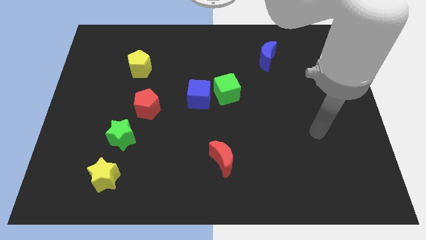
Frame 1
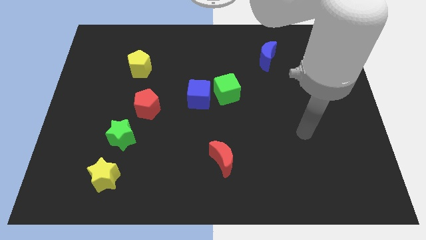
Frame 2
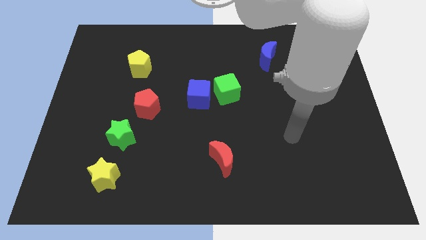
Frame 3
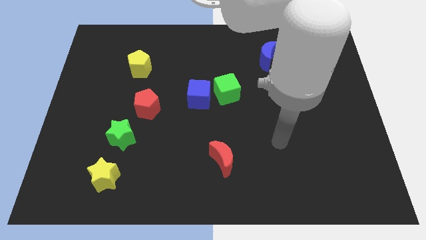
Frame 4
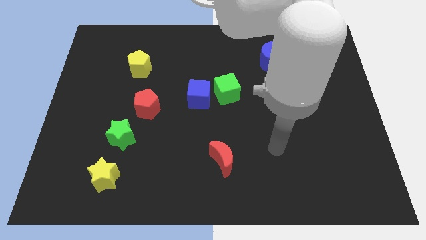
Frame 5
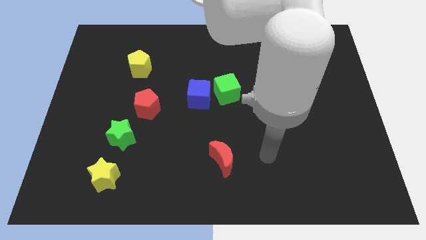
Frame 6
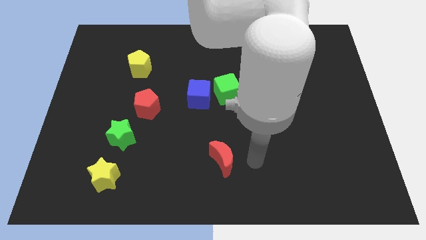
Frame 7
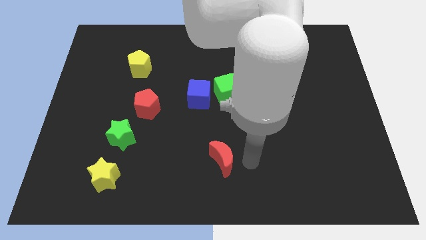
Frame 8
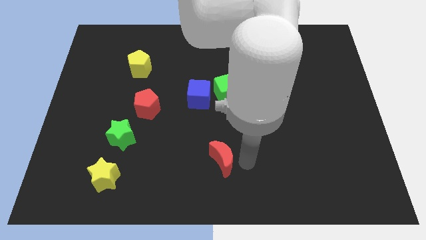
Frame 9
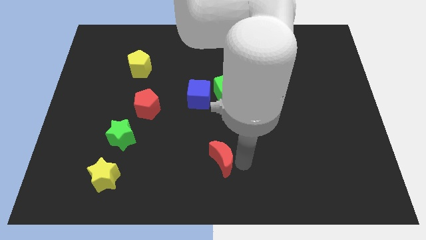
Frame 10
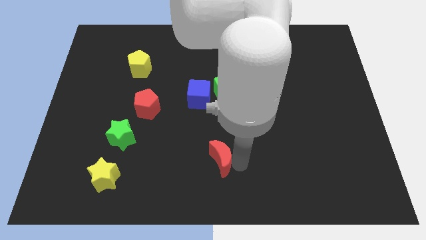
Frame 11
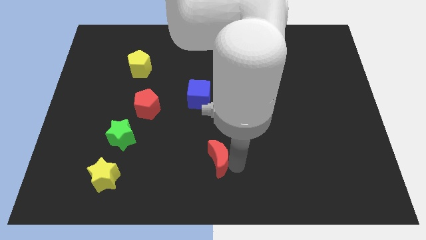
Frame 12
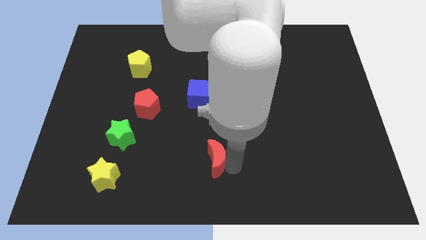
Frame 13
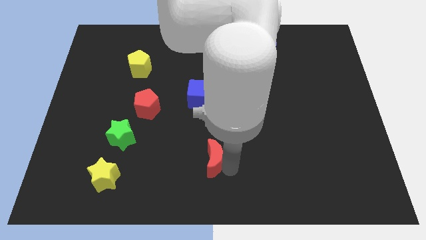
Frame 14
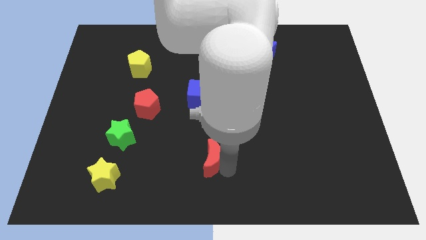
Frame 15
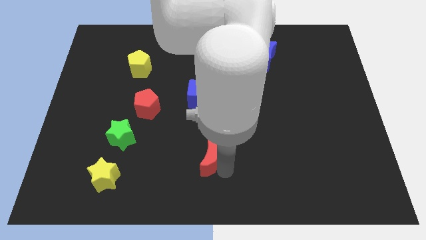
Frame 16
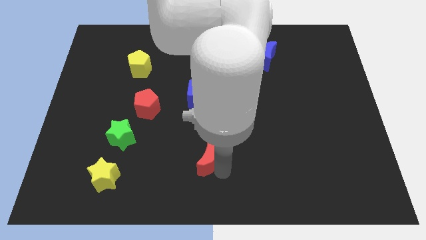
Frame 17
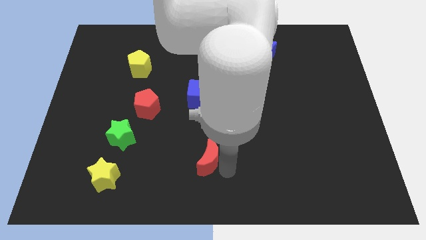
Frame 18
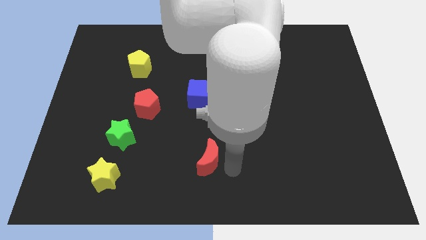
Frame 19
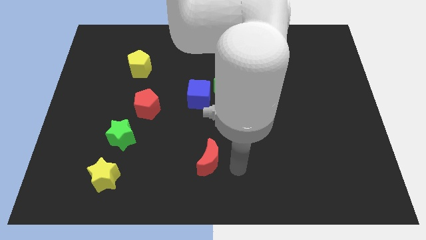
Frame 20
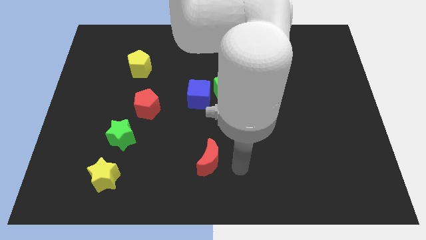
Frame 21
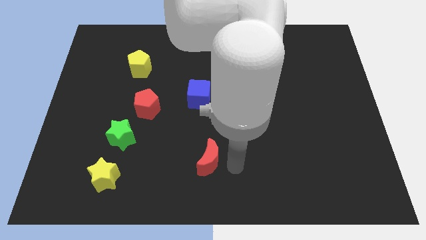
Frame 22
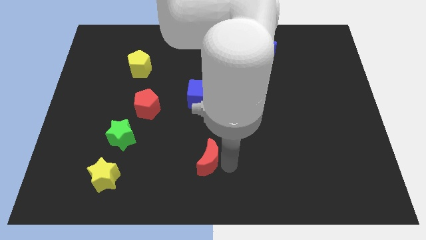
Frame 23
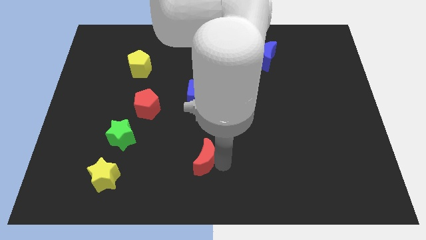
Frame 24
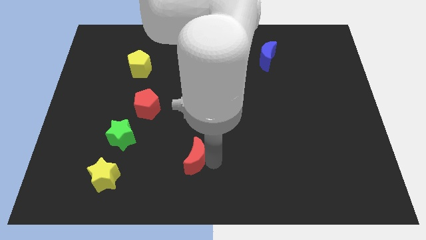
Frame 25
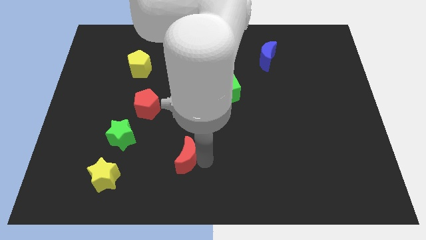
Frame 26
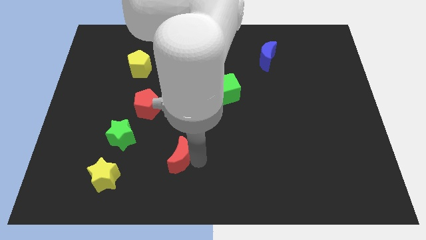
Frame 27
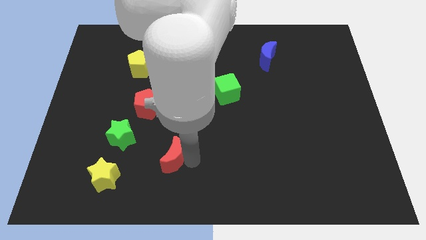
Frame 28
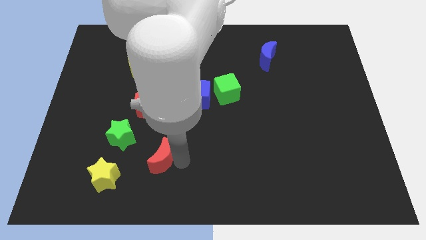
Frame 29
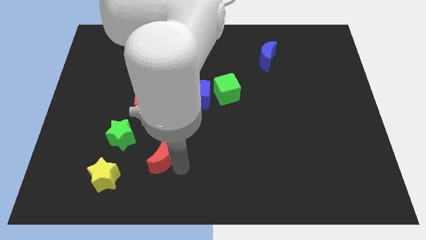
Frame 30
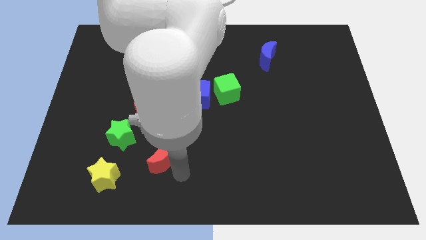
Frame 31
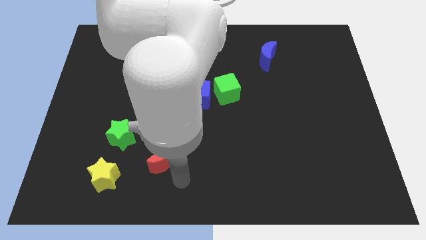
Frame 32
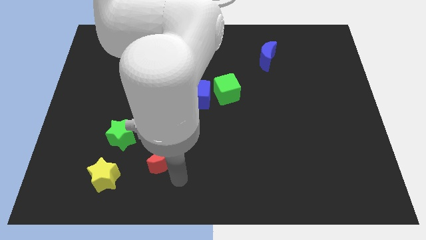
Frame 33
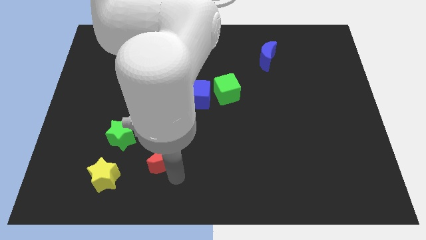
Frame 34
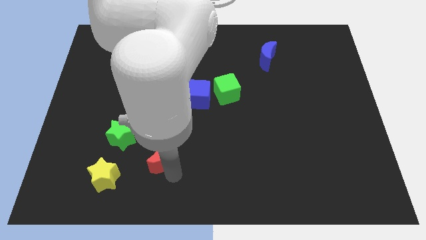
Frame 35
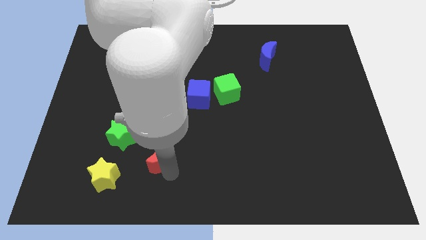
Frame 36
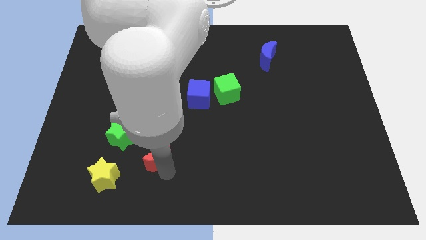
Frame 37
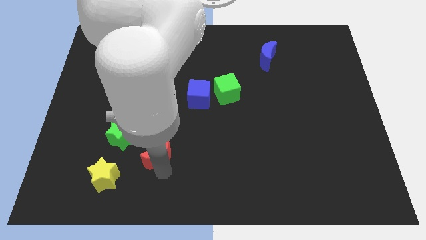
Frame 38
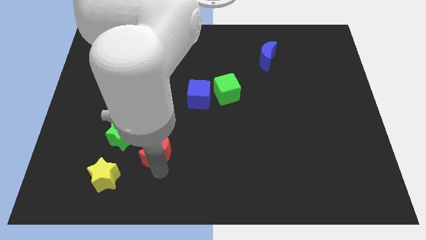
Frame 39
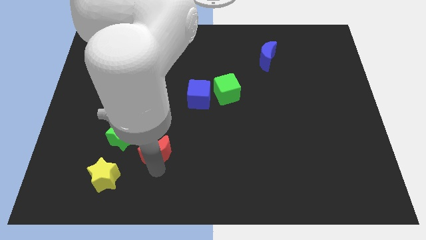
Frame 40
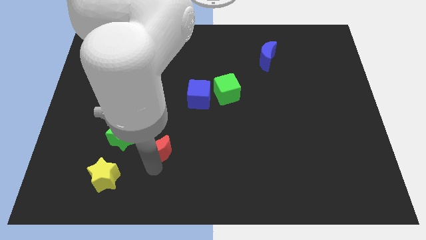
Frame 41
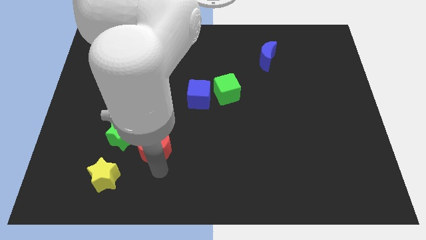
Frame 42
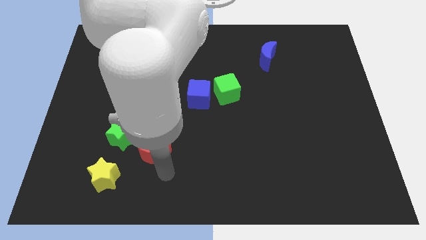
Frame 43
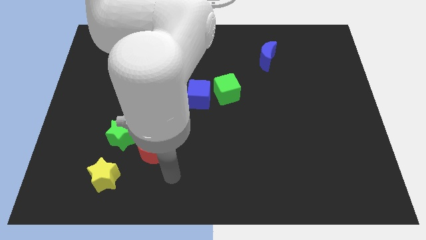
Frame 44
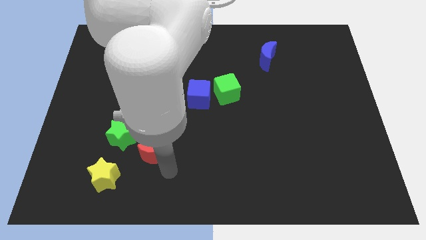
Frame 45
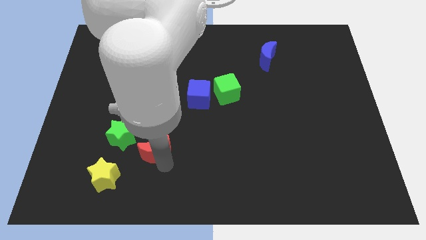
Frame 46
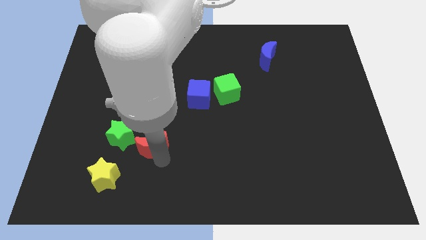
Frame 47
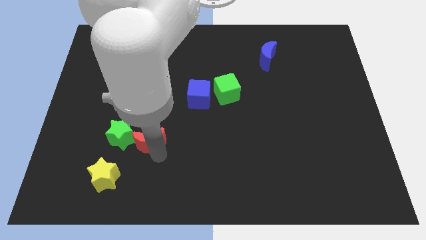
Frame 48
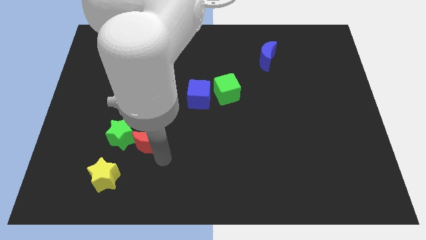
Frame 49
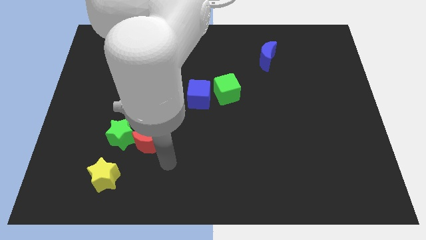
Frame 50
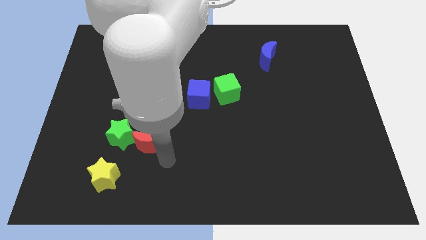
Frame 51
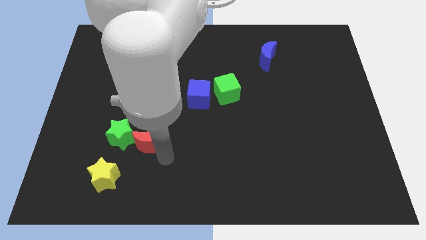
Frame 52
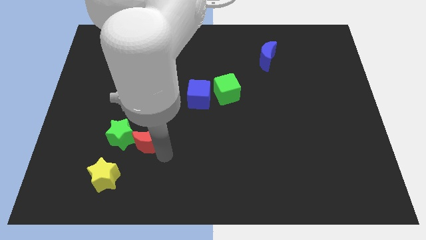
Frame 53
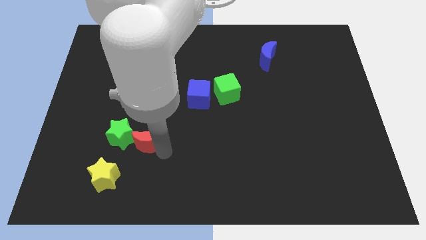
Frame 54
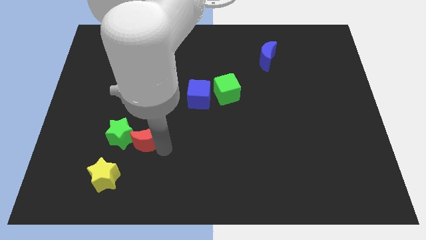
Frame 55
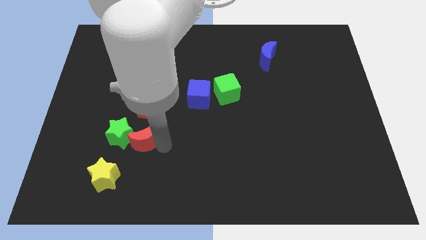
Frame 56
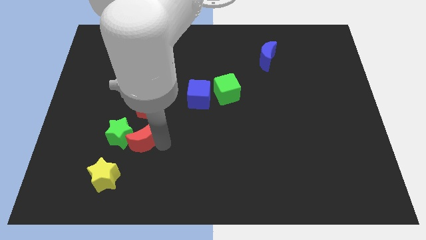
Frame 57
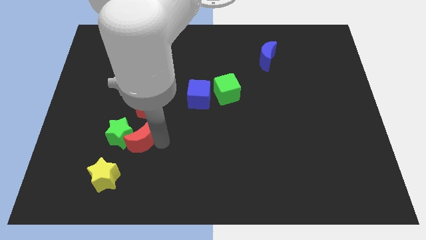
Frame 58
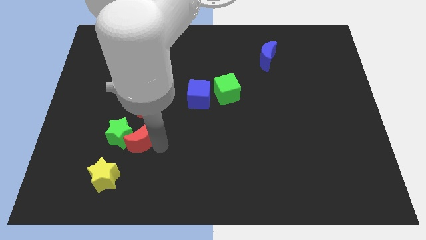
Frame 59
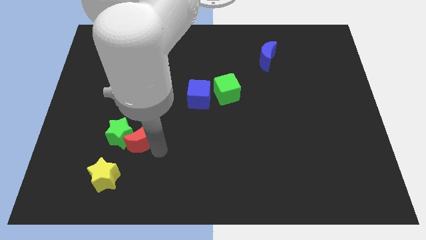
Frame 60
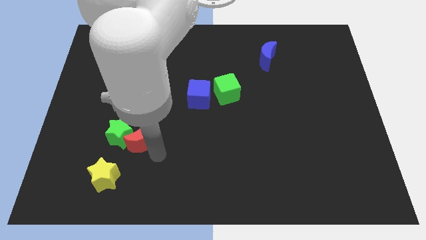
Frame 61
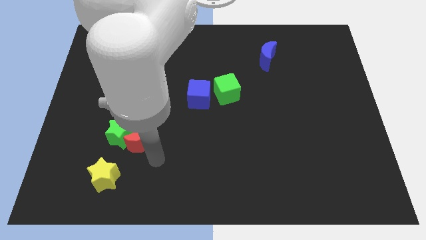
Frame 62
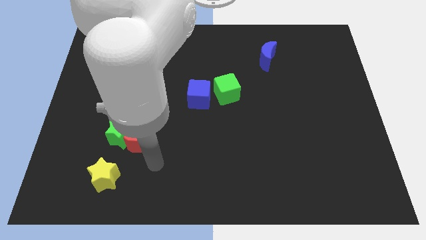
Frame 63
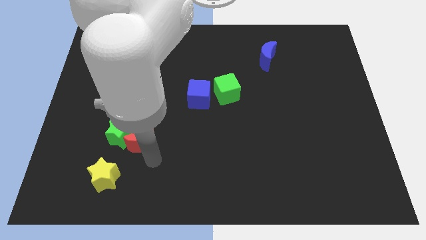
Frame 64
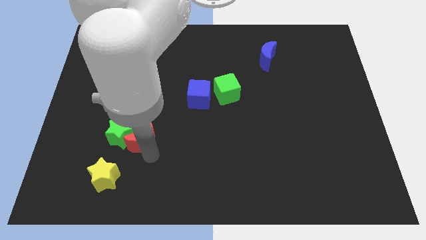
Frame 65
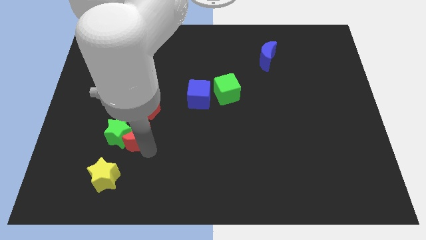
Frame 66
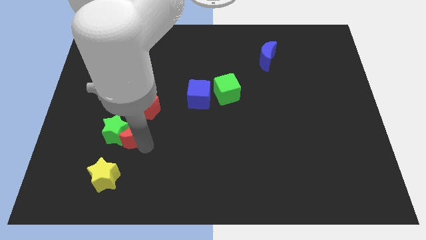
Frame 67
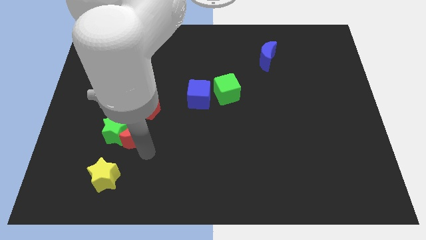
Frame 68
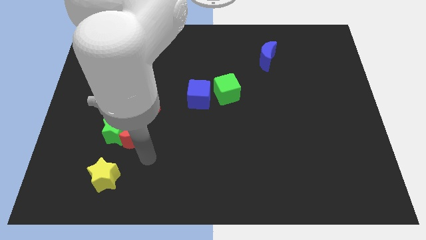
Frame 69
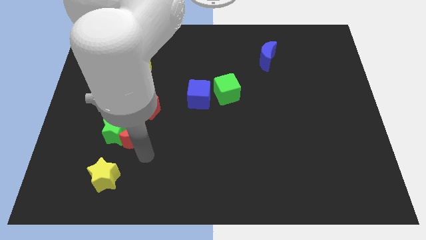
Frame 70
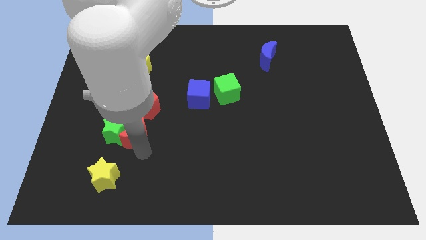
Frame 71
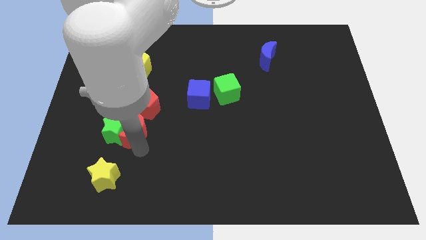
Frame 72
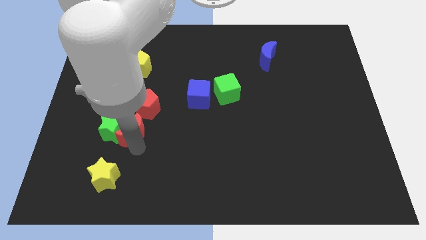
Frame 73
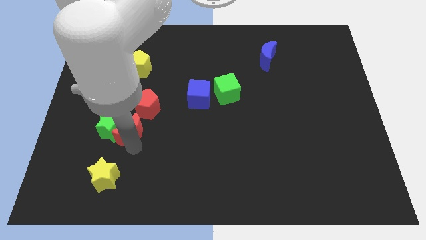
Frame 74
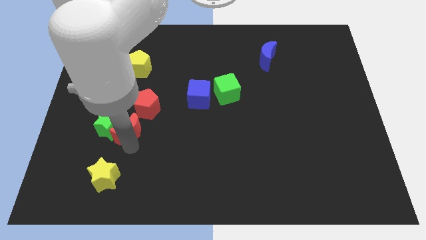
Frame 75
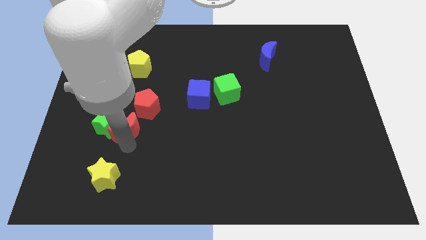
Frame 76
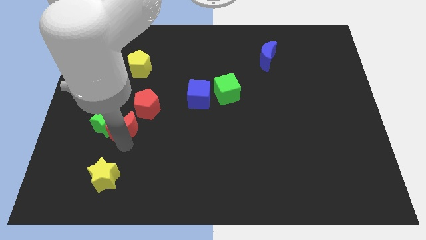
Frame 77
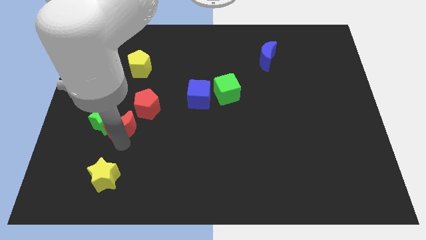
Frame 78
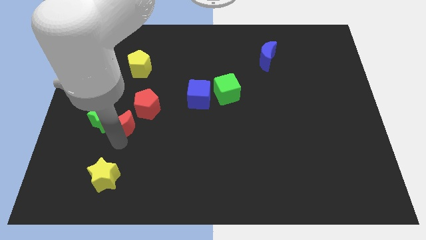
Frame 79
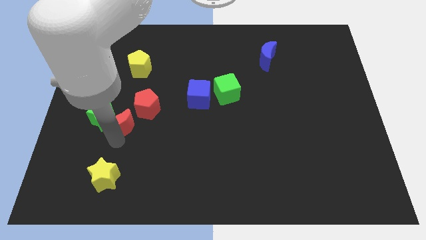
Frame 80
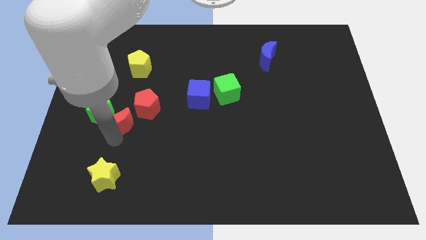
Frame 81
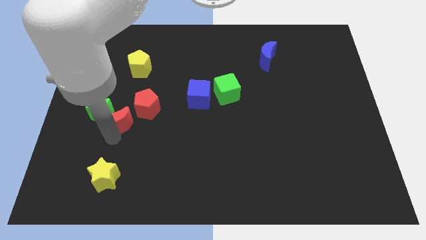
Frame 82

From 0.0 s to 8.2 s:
move the red moon to the left side of the red pentagon
